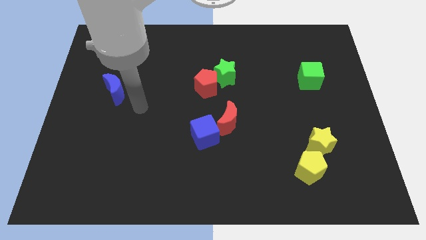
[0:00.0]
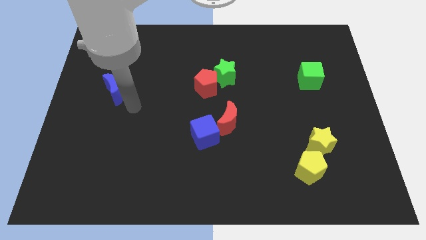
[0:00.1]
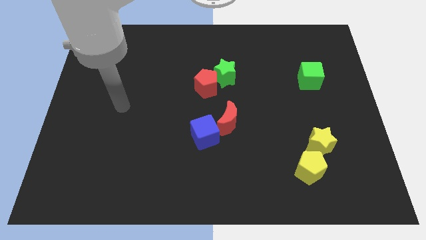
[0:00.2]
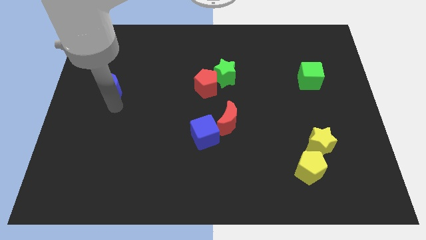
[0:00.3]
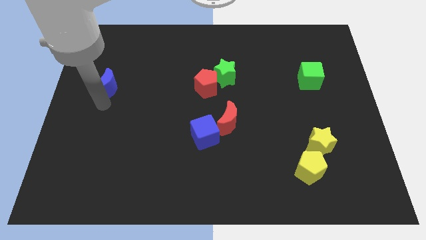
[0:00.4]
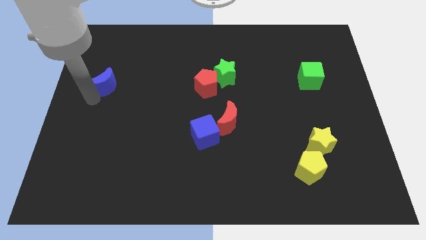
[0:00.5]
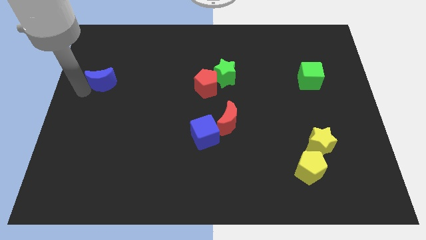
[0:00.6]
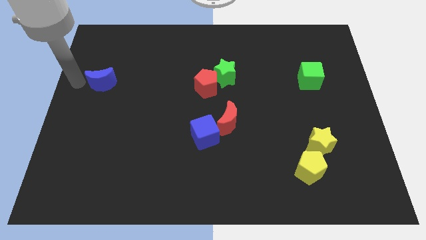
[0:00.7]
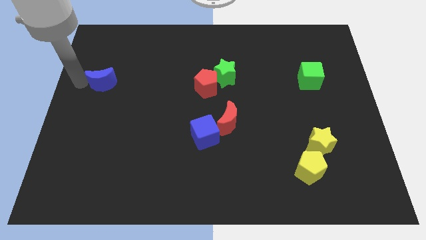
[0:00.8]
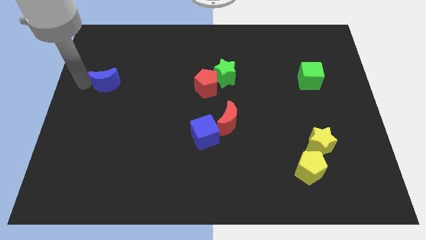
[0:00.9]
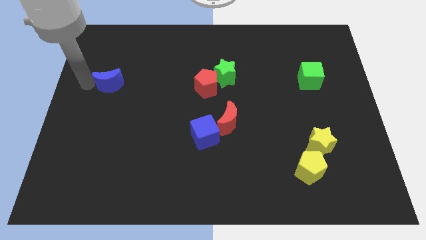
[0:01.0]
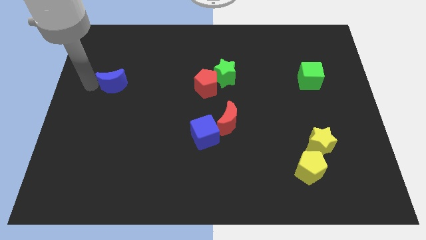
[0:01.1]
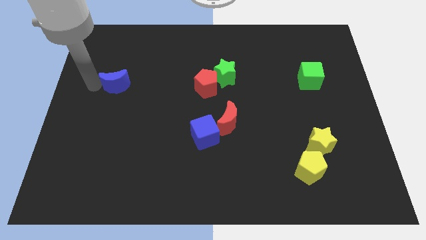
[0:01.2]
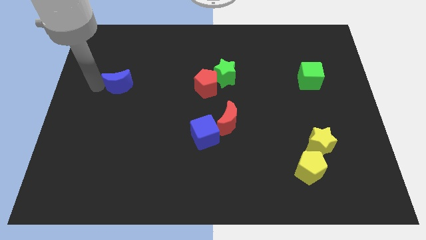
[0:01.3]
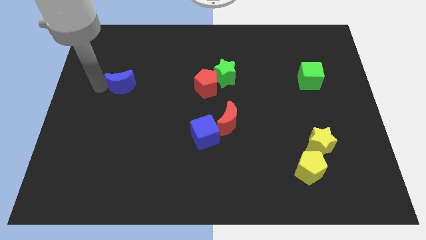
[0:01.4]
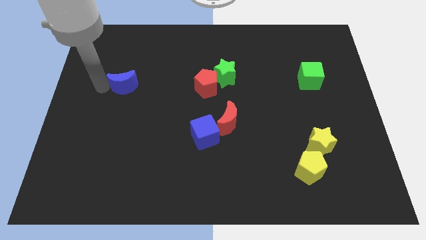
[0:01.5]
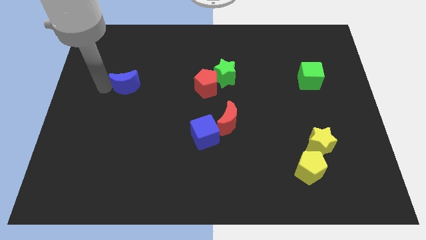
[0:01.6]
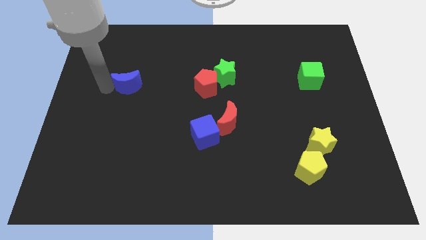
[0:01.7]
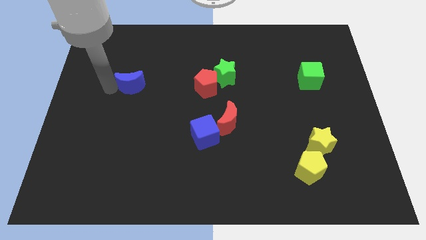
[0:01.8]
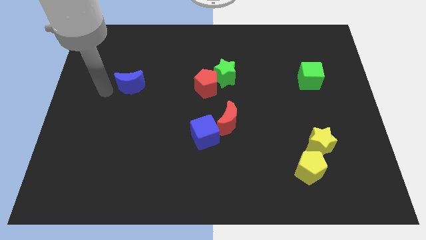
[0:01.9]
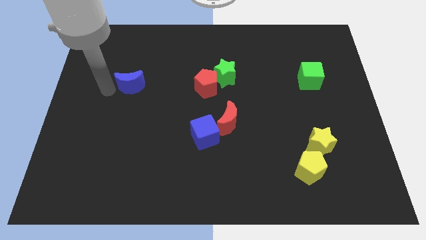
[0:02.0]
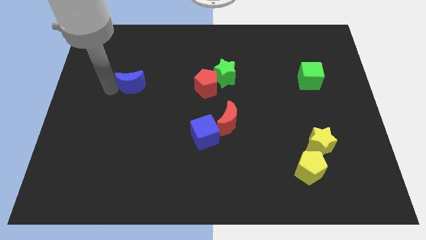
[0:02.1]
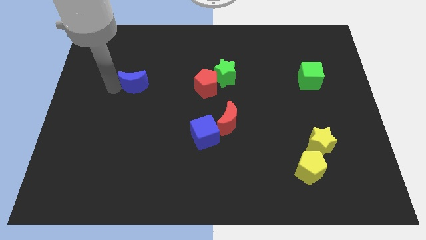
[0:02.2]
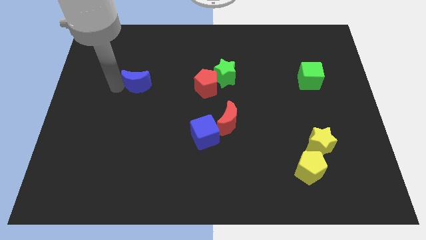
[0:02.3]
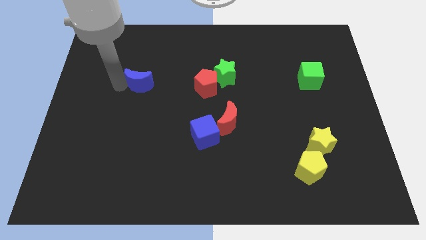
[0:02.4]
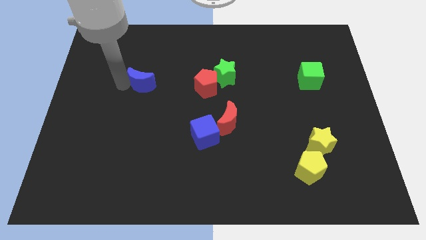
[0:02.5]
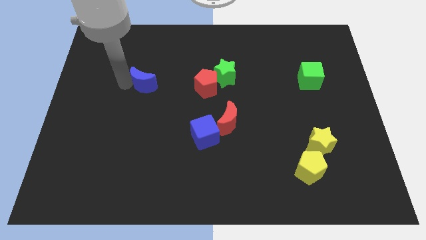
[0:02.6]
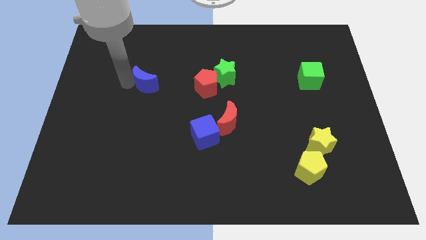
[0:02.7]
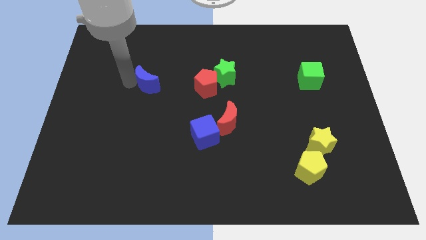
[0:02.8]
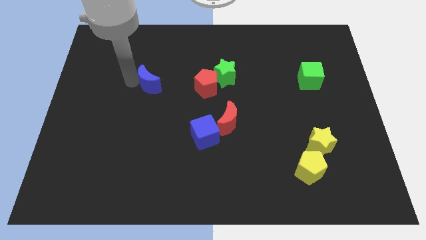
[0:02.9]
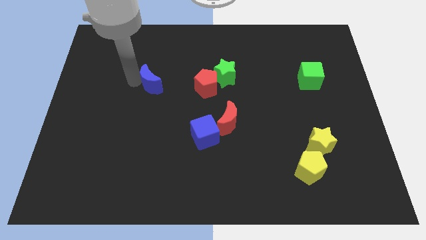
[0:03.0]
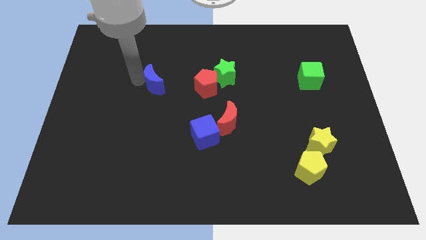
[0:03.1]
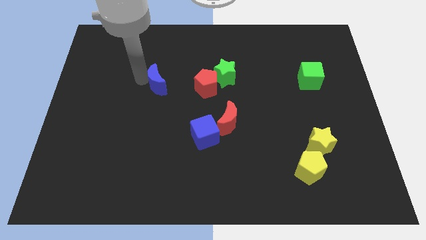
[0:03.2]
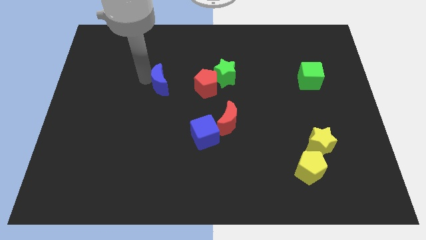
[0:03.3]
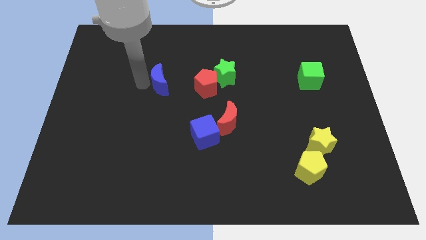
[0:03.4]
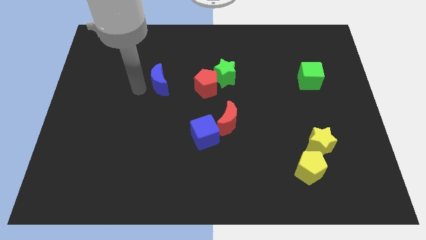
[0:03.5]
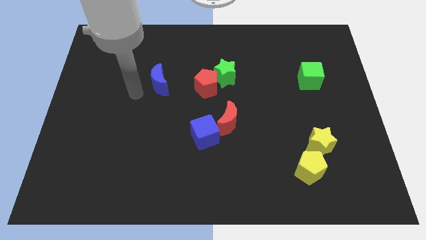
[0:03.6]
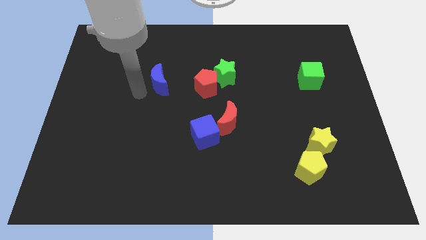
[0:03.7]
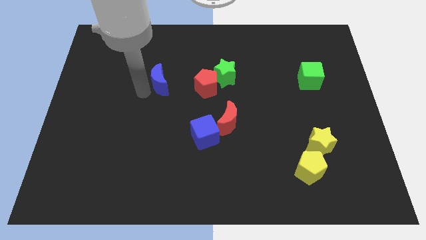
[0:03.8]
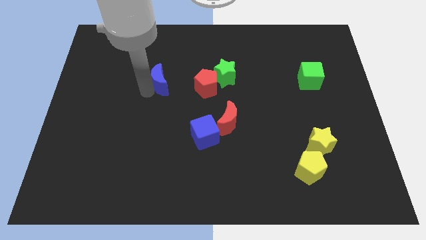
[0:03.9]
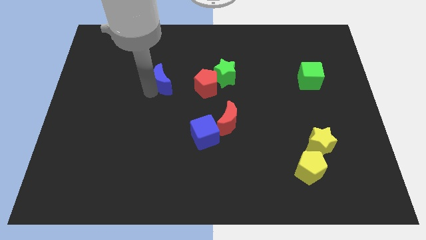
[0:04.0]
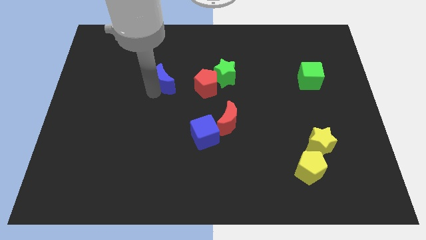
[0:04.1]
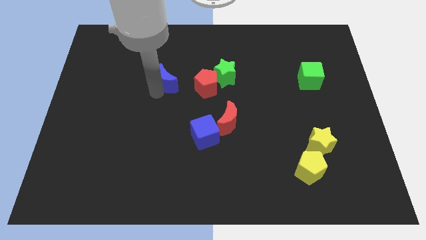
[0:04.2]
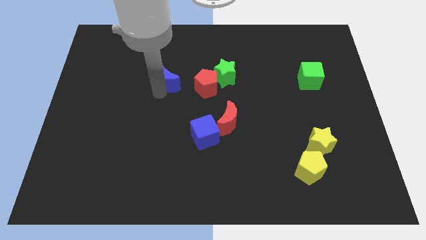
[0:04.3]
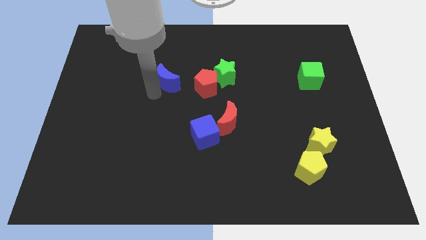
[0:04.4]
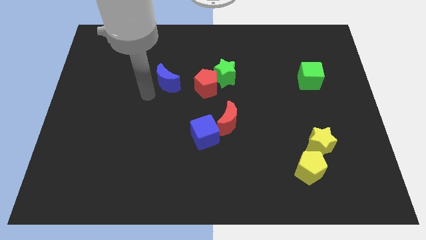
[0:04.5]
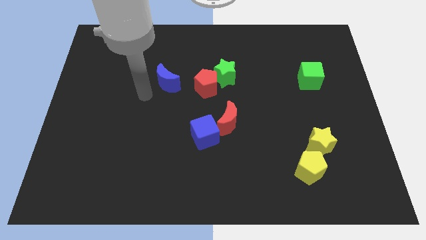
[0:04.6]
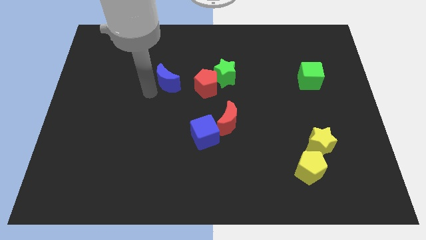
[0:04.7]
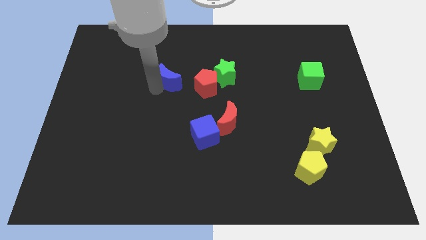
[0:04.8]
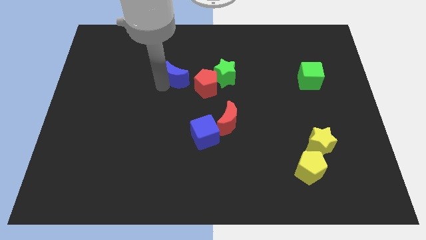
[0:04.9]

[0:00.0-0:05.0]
push the blue moon diagonally up and to the left of the red pentagon

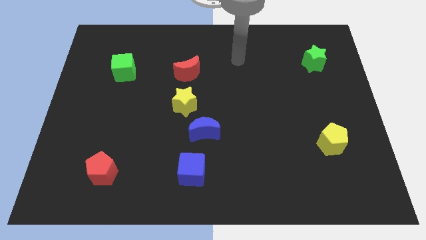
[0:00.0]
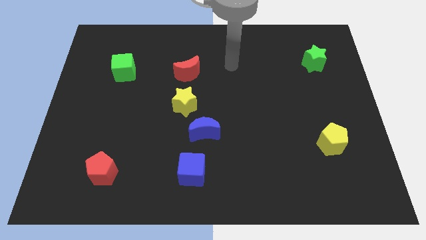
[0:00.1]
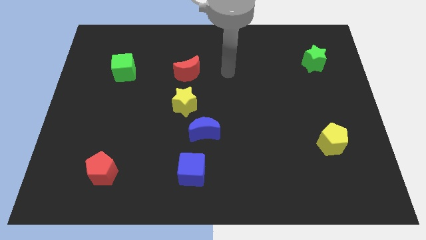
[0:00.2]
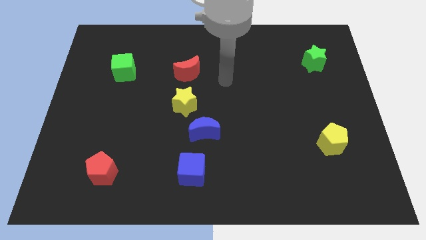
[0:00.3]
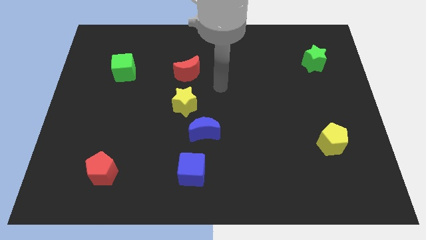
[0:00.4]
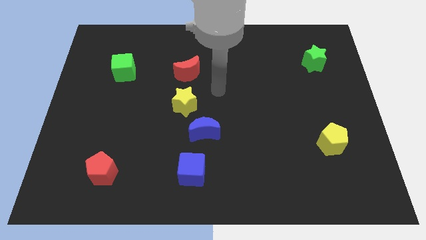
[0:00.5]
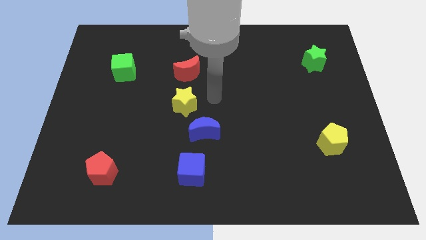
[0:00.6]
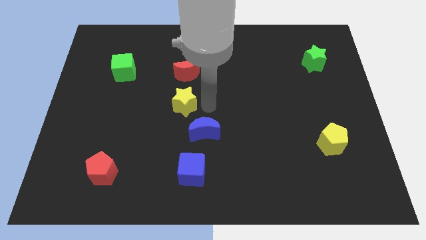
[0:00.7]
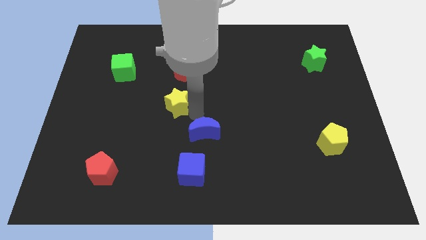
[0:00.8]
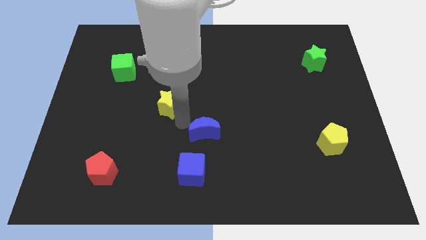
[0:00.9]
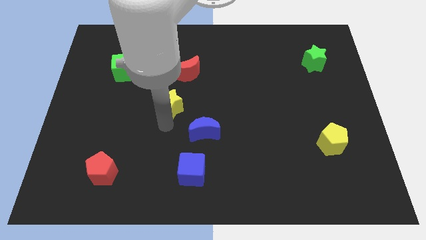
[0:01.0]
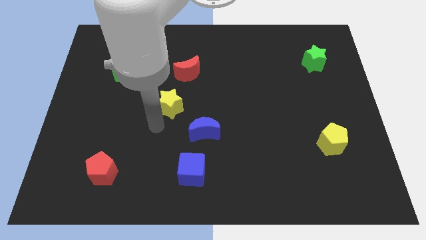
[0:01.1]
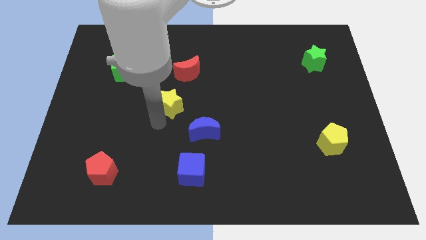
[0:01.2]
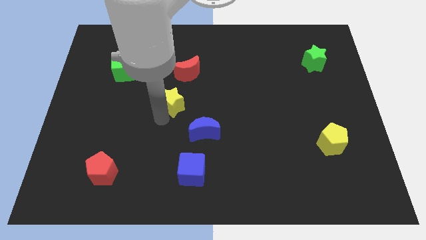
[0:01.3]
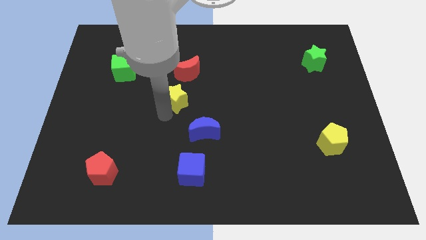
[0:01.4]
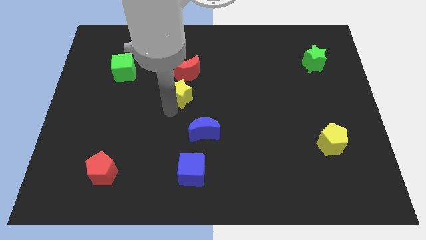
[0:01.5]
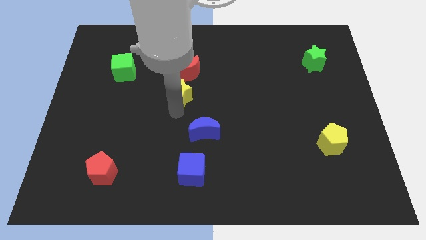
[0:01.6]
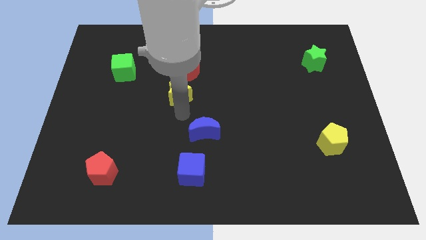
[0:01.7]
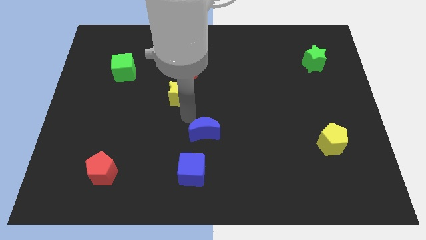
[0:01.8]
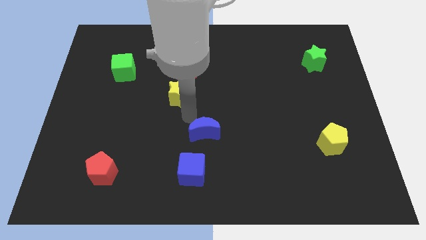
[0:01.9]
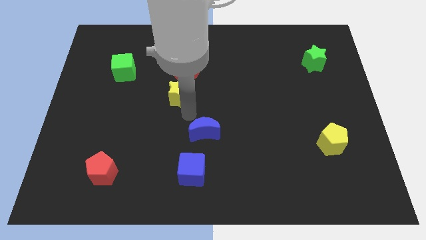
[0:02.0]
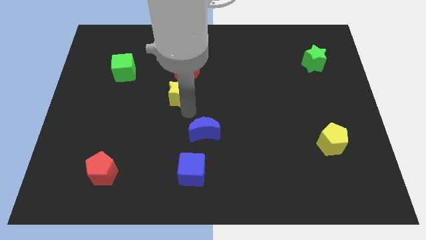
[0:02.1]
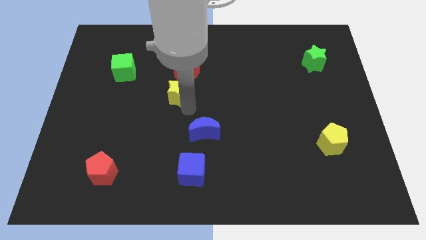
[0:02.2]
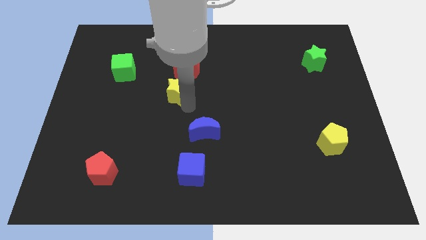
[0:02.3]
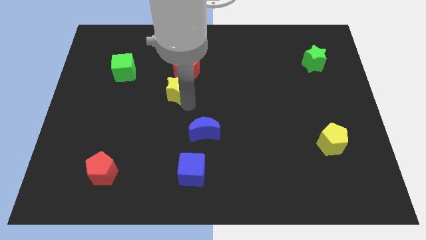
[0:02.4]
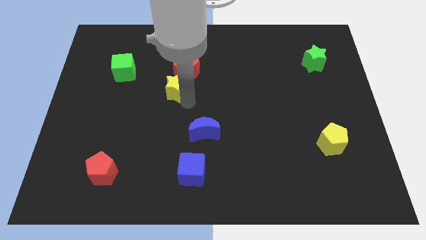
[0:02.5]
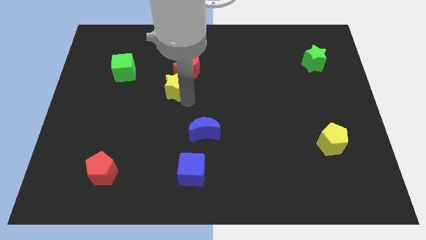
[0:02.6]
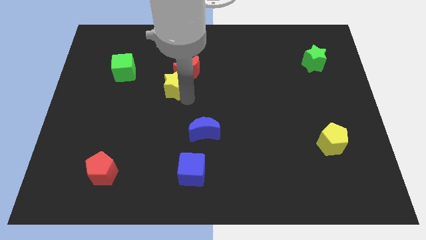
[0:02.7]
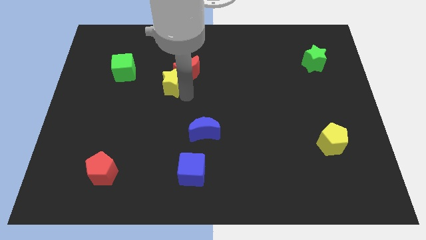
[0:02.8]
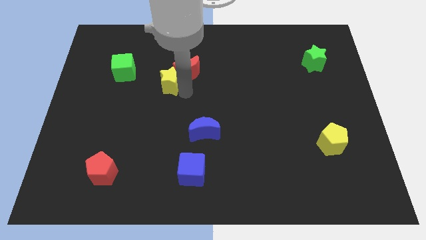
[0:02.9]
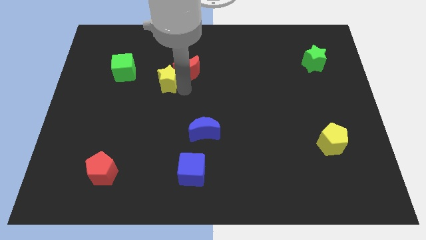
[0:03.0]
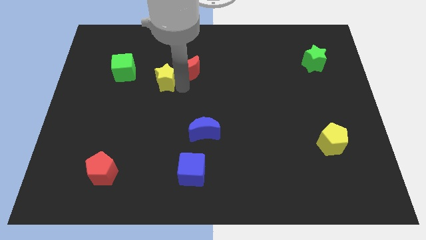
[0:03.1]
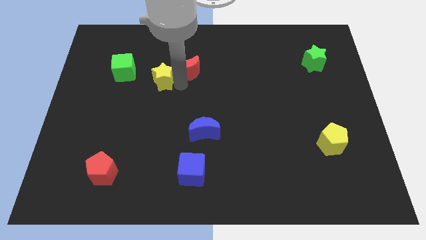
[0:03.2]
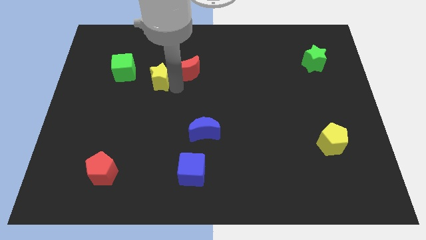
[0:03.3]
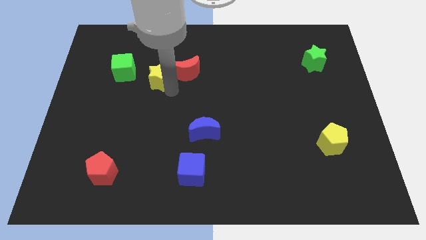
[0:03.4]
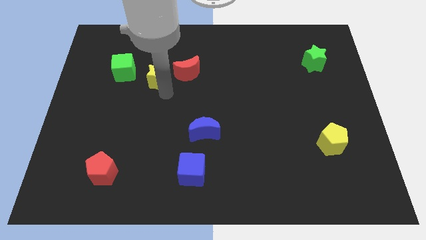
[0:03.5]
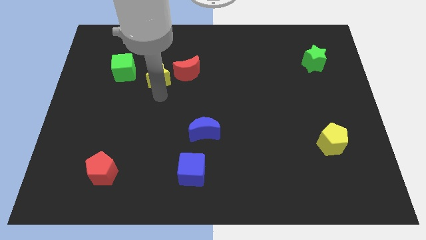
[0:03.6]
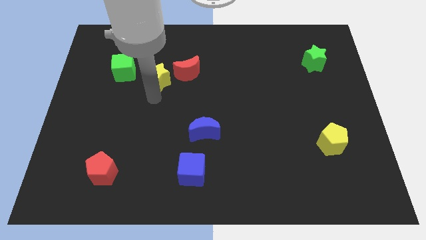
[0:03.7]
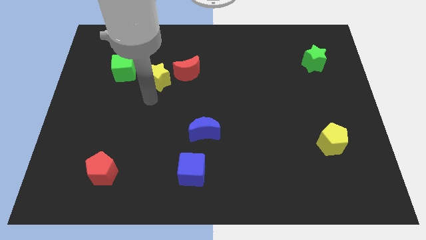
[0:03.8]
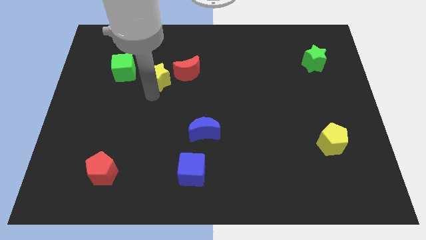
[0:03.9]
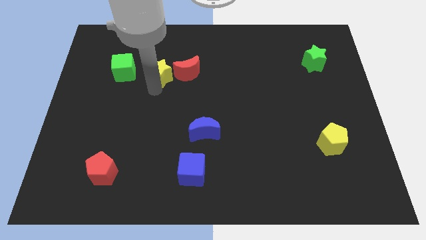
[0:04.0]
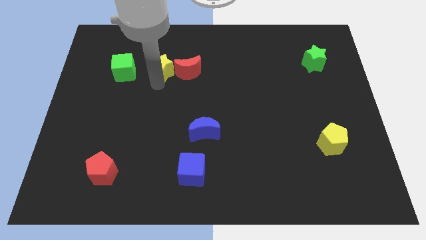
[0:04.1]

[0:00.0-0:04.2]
slide the yellow star diagonally up and to the left of the red moon
